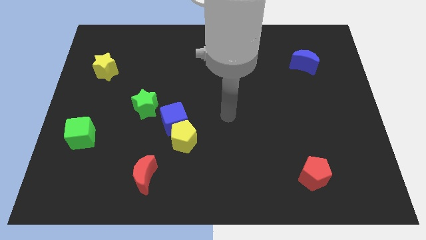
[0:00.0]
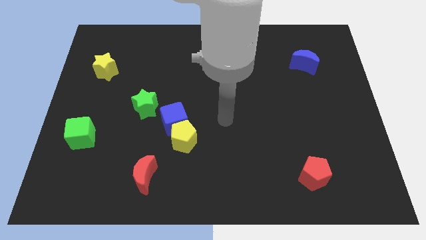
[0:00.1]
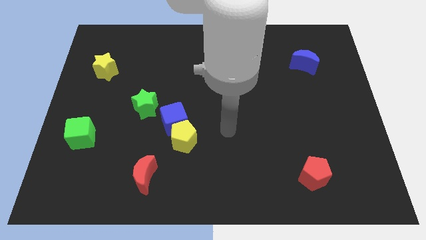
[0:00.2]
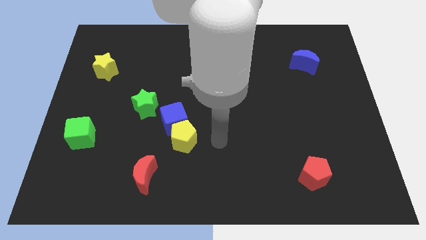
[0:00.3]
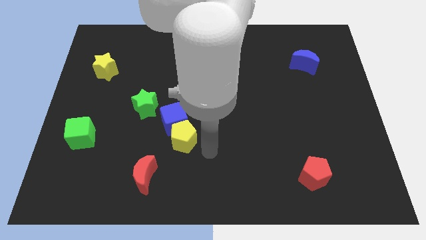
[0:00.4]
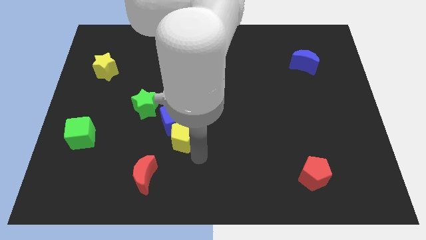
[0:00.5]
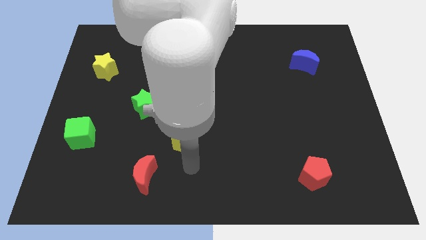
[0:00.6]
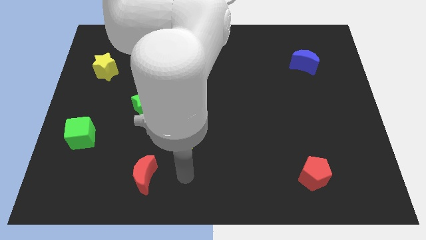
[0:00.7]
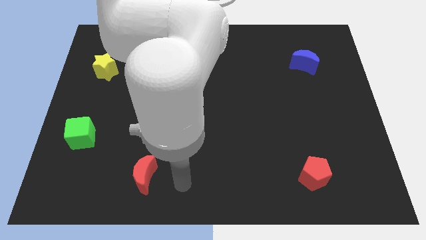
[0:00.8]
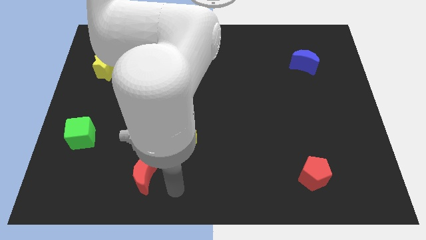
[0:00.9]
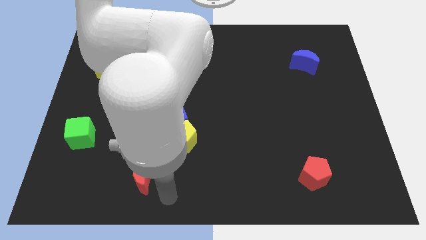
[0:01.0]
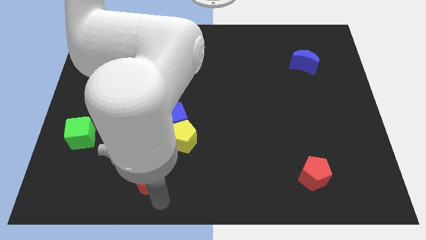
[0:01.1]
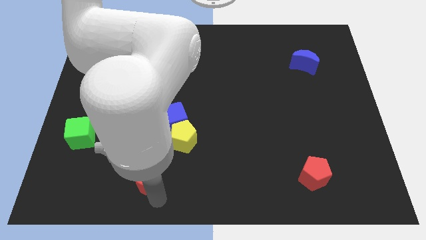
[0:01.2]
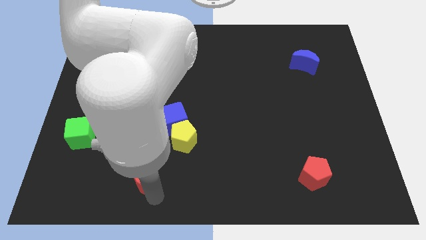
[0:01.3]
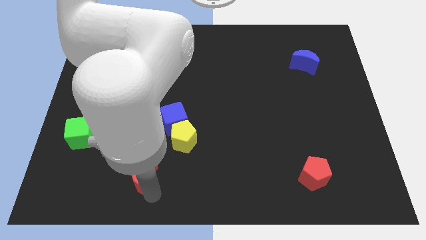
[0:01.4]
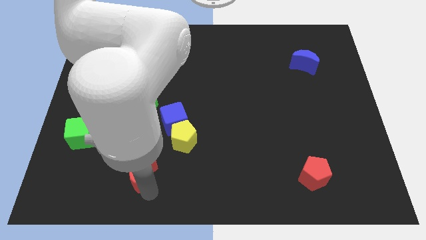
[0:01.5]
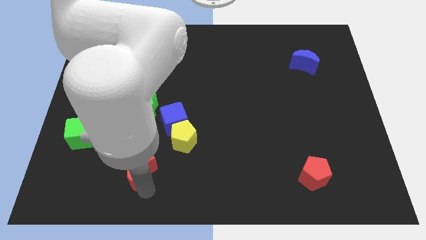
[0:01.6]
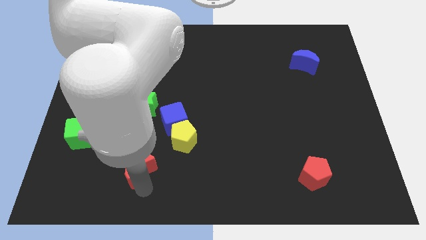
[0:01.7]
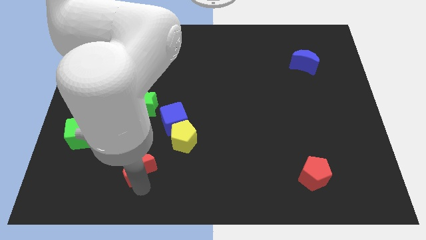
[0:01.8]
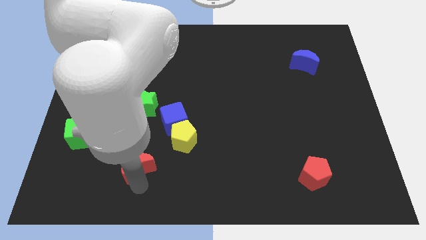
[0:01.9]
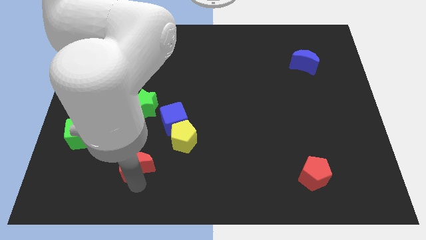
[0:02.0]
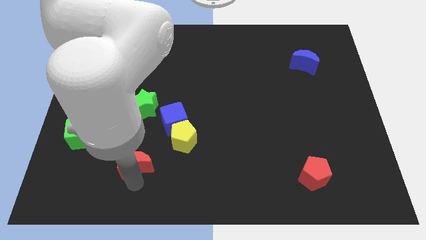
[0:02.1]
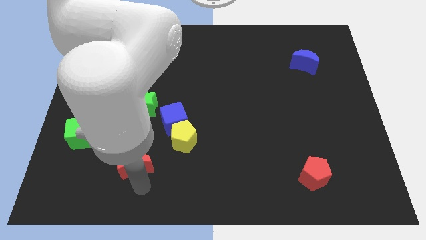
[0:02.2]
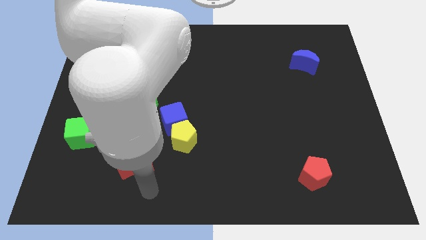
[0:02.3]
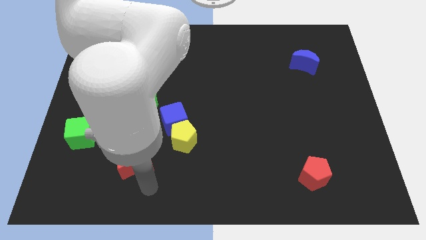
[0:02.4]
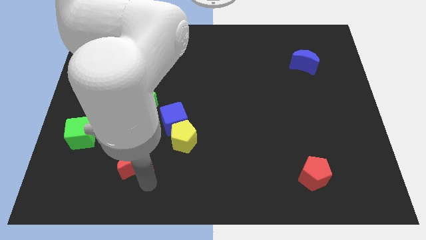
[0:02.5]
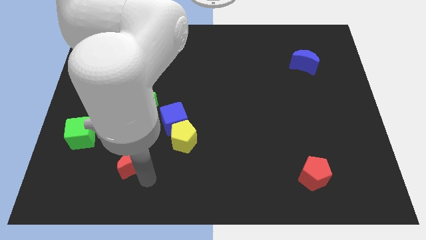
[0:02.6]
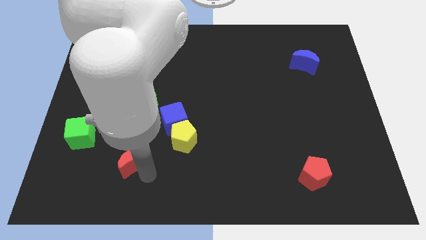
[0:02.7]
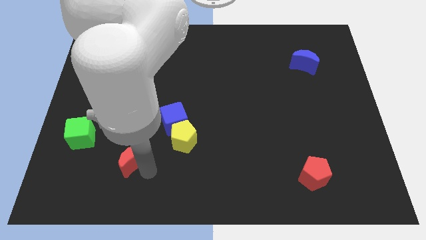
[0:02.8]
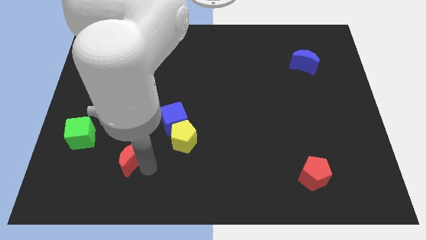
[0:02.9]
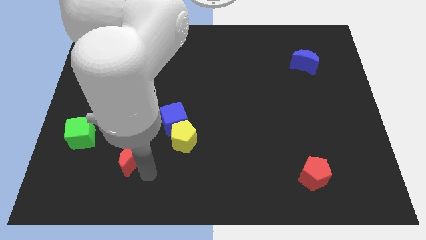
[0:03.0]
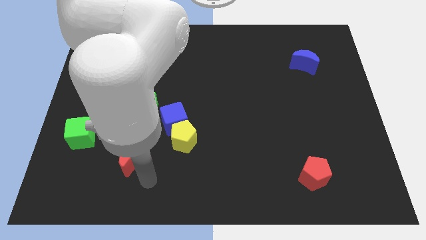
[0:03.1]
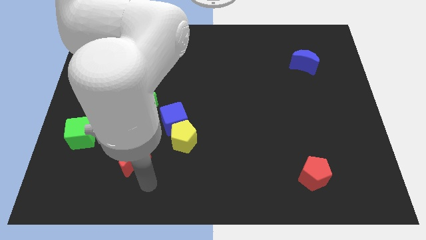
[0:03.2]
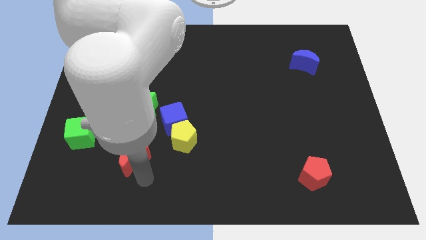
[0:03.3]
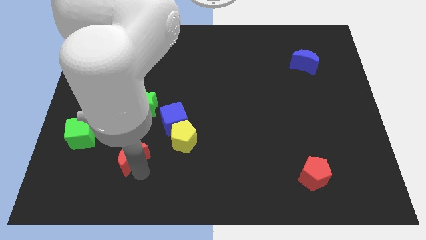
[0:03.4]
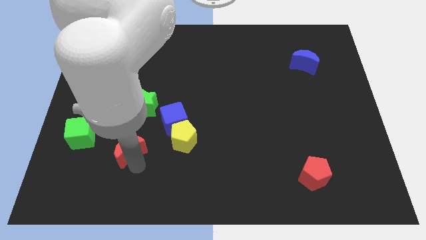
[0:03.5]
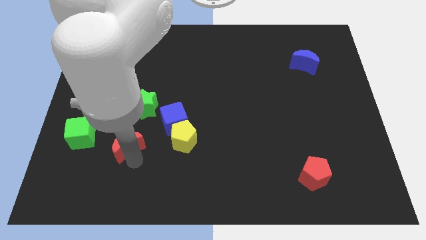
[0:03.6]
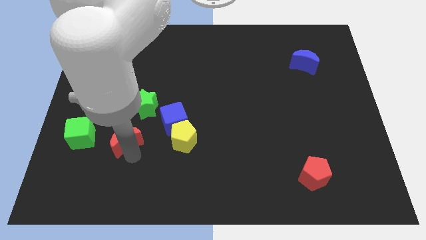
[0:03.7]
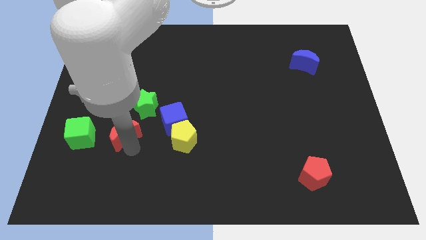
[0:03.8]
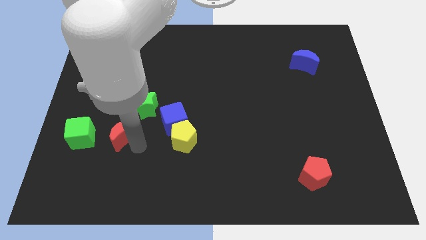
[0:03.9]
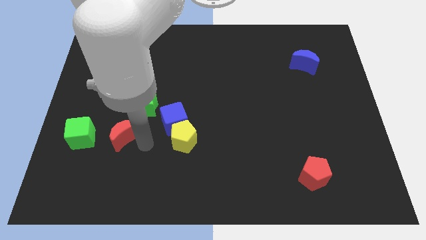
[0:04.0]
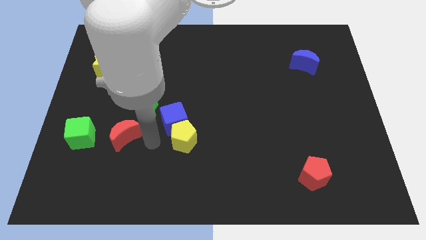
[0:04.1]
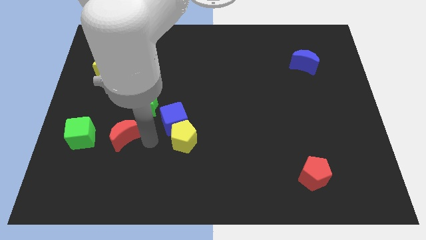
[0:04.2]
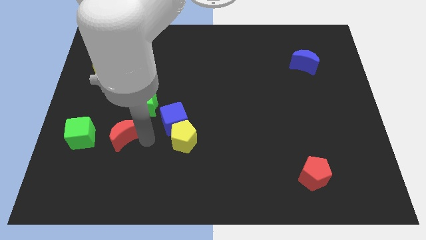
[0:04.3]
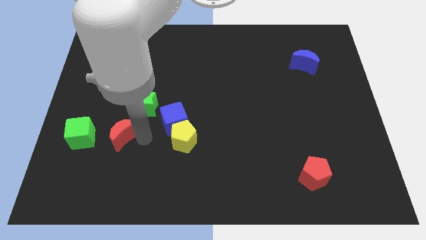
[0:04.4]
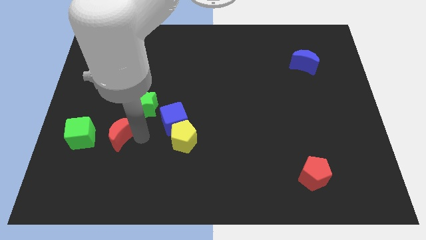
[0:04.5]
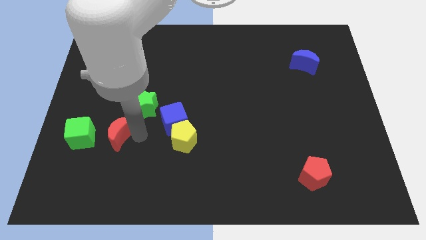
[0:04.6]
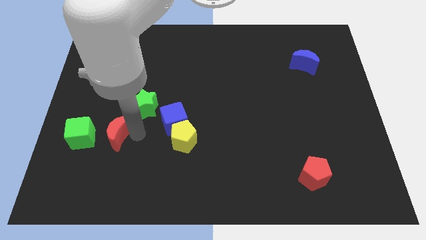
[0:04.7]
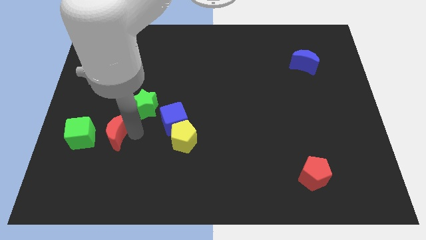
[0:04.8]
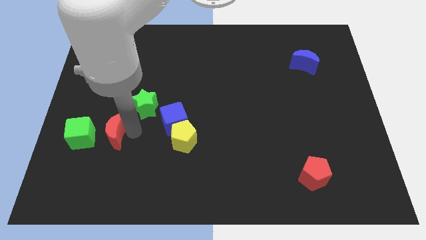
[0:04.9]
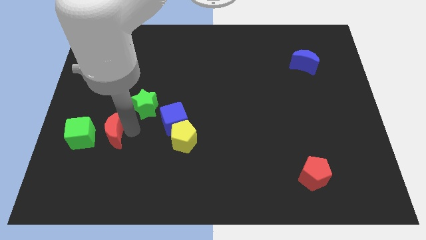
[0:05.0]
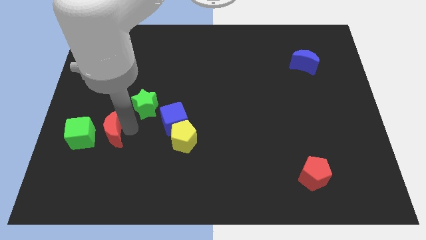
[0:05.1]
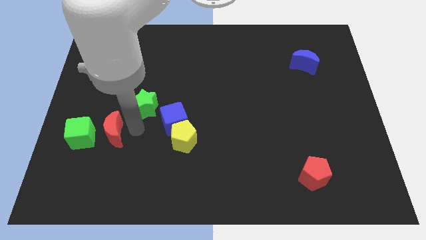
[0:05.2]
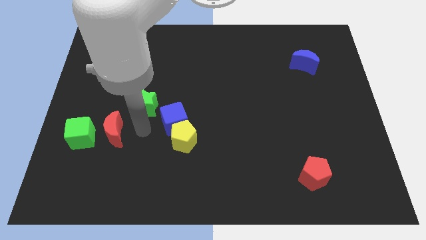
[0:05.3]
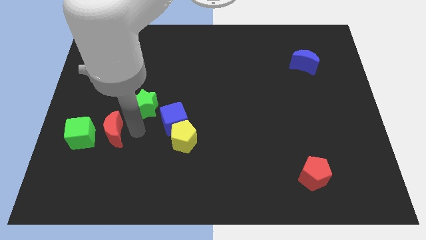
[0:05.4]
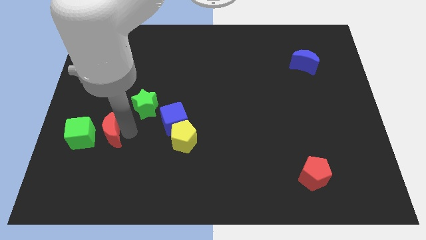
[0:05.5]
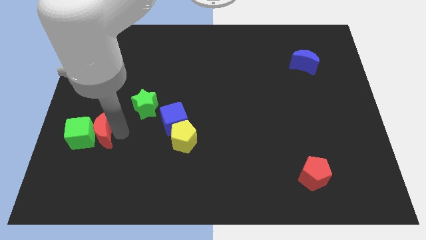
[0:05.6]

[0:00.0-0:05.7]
move the red moon towards the green cube

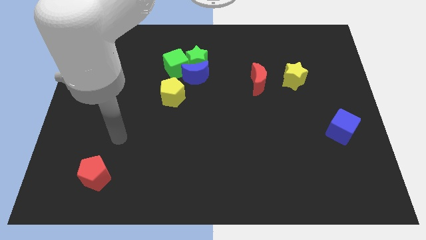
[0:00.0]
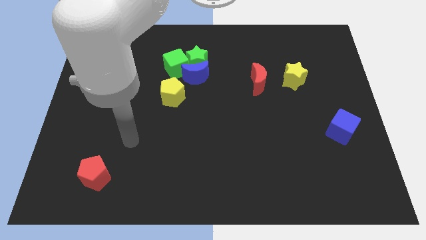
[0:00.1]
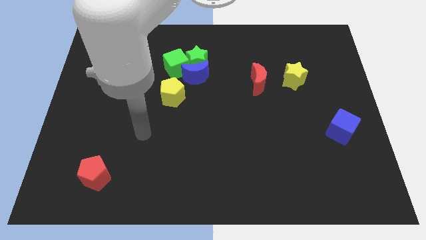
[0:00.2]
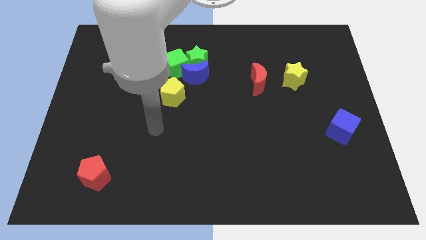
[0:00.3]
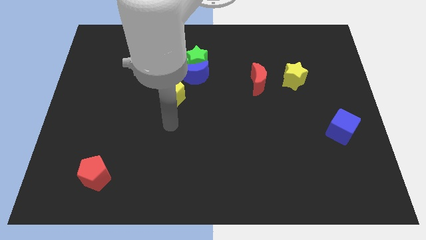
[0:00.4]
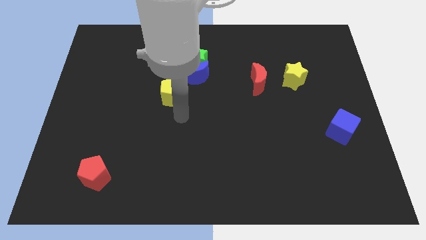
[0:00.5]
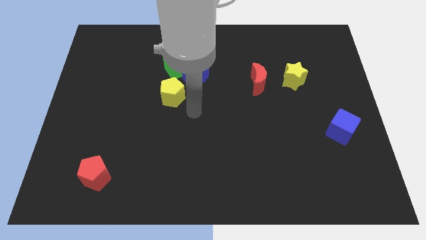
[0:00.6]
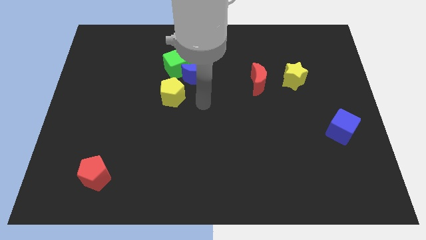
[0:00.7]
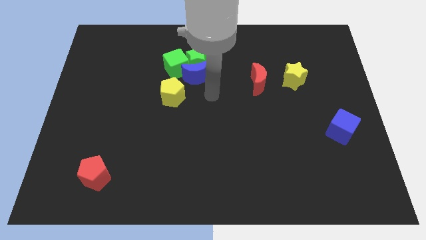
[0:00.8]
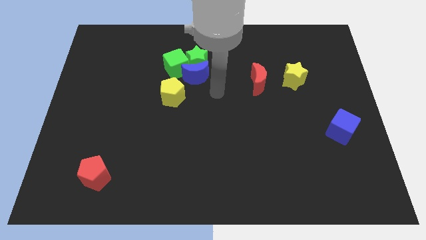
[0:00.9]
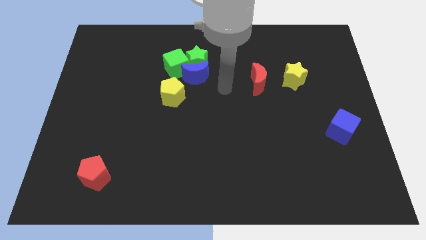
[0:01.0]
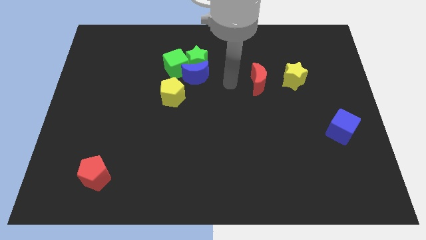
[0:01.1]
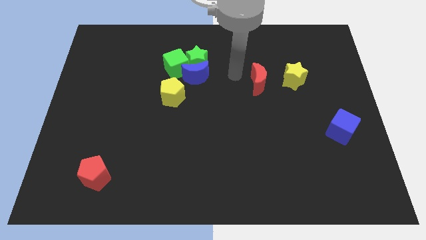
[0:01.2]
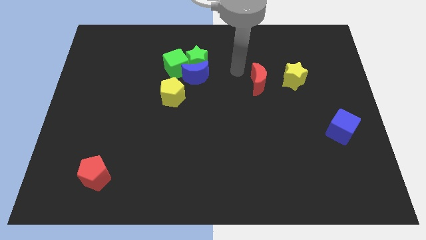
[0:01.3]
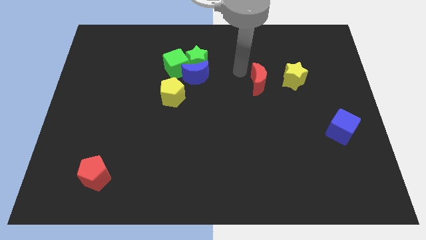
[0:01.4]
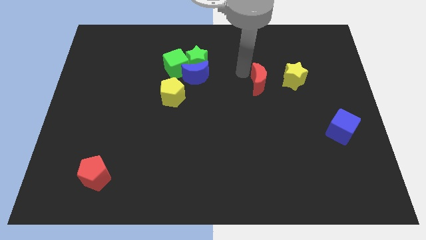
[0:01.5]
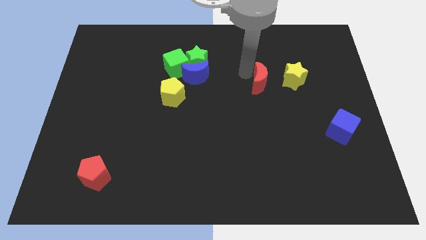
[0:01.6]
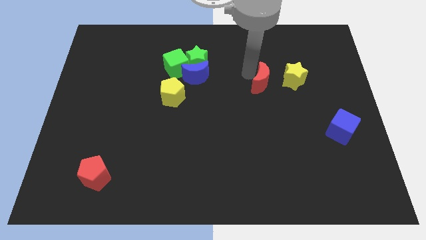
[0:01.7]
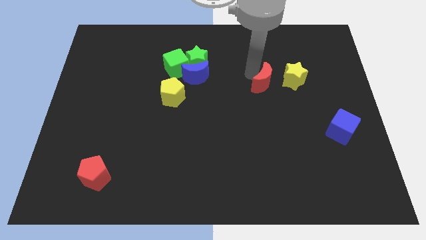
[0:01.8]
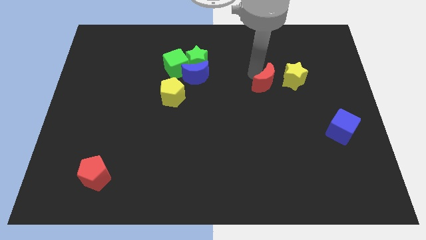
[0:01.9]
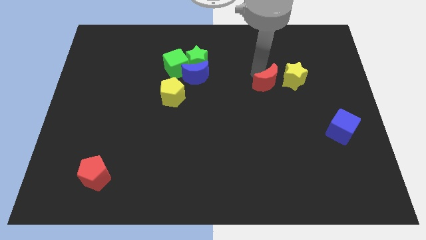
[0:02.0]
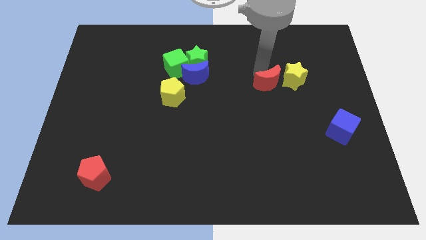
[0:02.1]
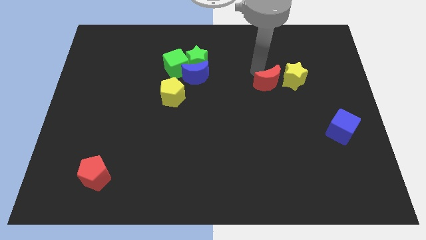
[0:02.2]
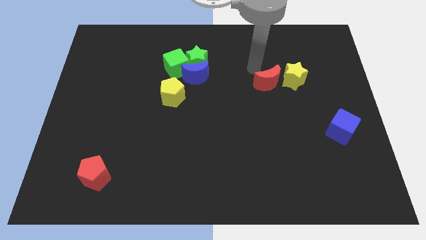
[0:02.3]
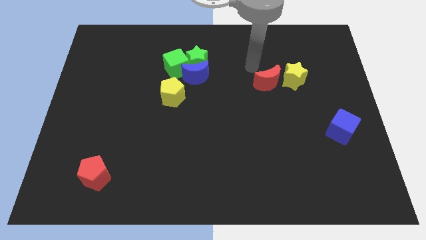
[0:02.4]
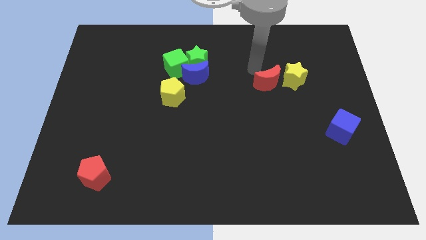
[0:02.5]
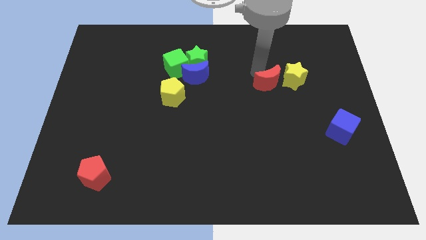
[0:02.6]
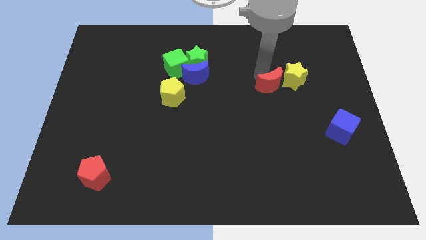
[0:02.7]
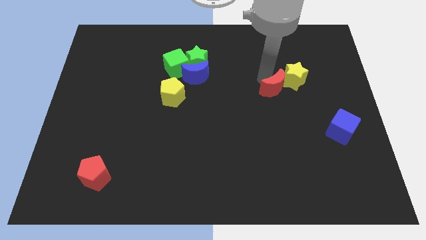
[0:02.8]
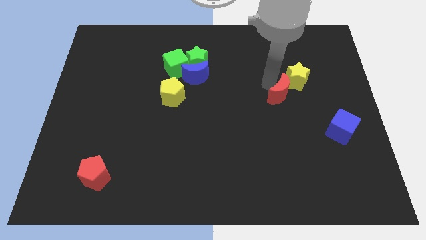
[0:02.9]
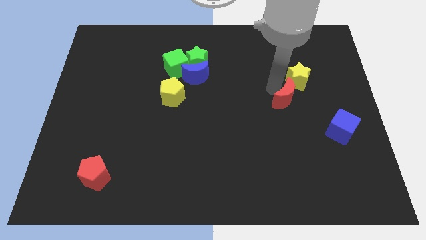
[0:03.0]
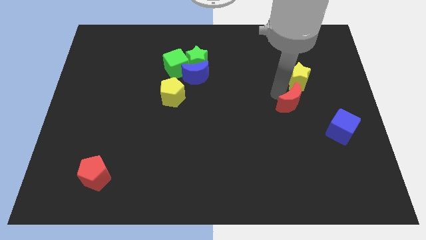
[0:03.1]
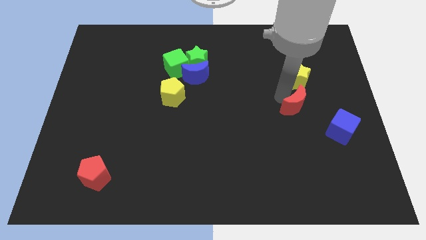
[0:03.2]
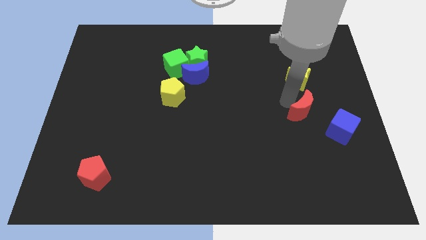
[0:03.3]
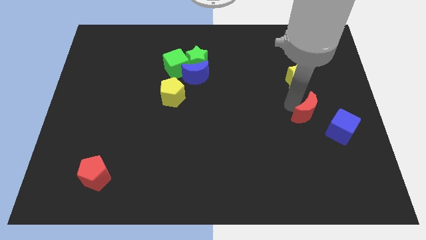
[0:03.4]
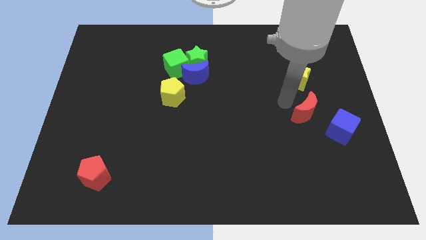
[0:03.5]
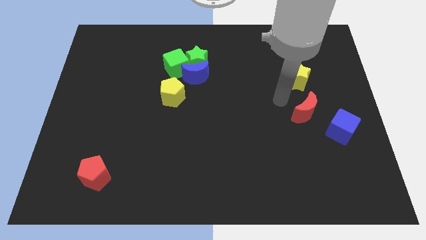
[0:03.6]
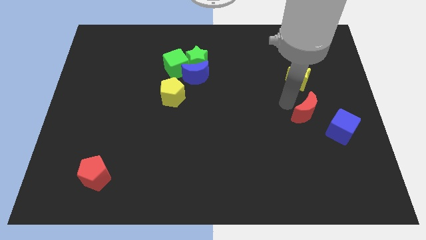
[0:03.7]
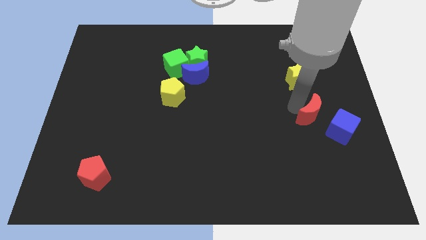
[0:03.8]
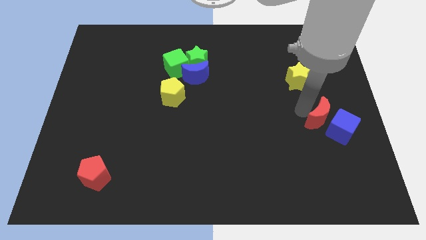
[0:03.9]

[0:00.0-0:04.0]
move the red moon to the blue cube
